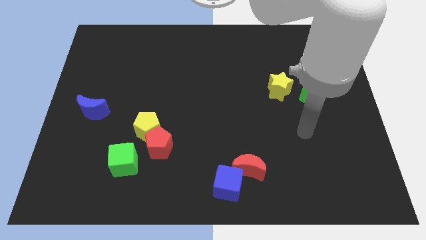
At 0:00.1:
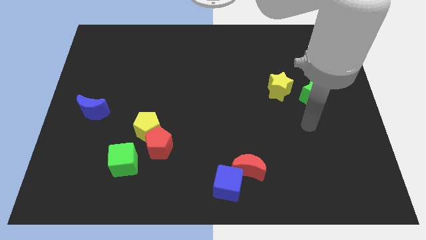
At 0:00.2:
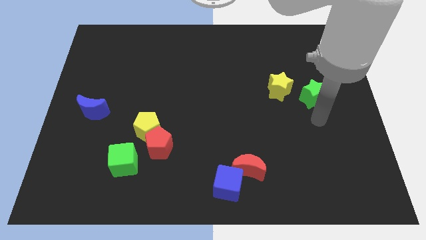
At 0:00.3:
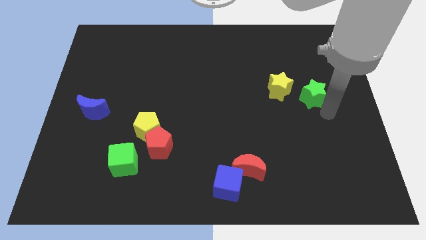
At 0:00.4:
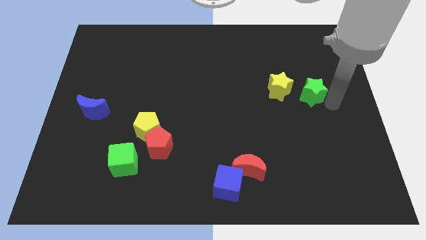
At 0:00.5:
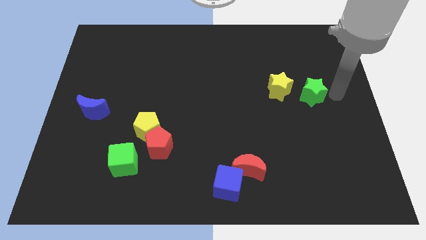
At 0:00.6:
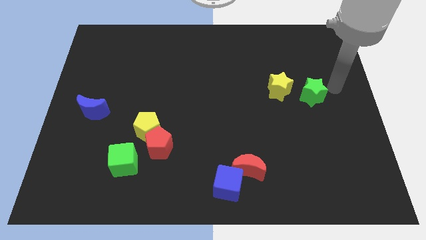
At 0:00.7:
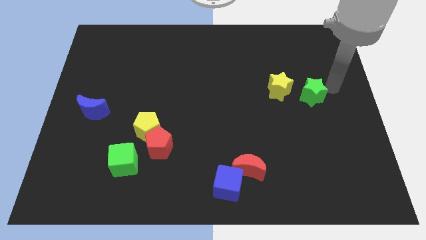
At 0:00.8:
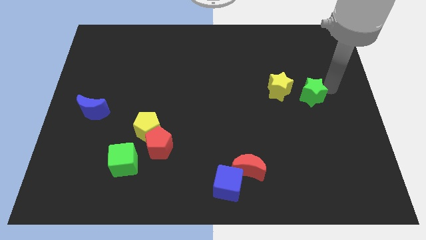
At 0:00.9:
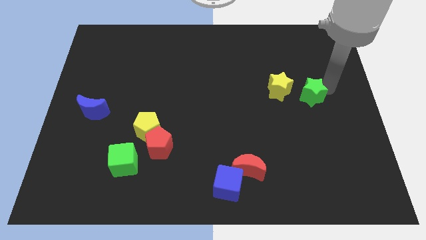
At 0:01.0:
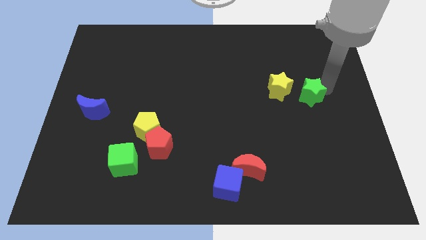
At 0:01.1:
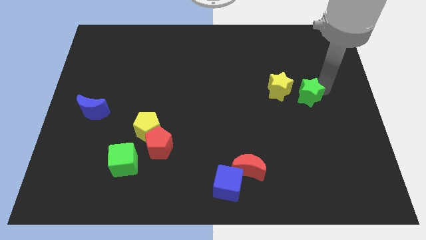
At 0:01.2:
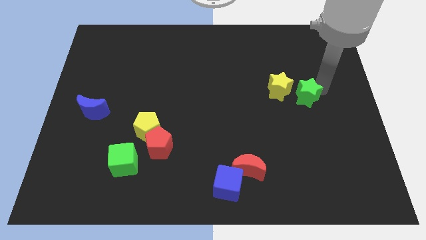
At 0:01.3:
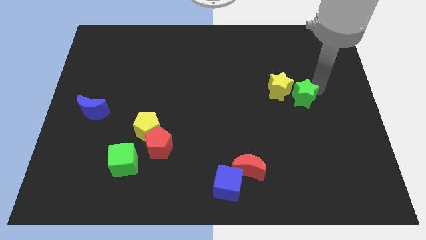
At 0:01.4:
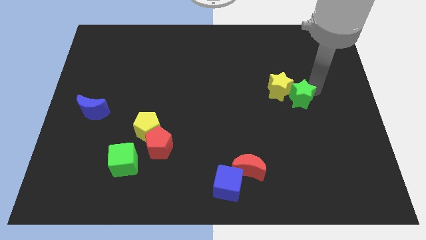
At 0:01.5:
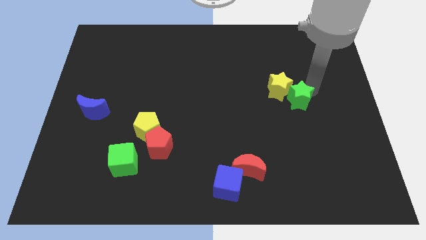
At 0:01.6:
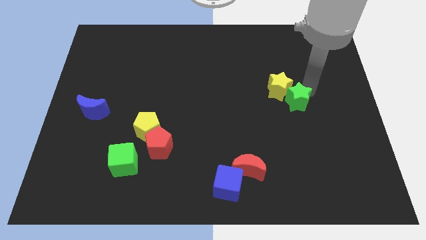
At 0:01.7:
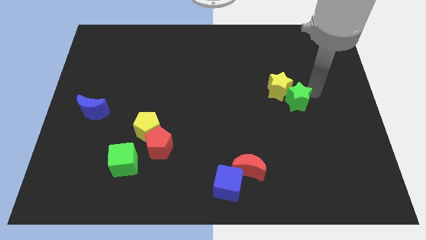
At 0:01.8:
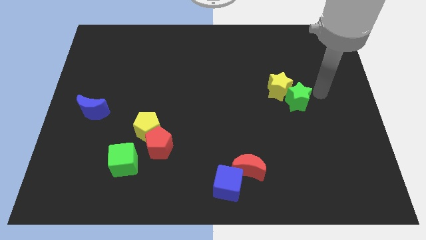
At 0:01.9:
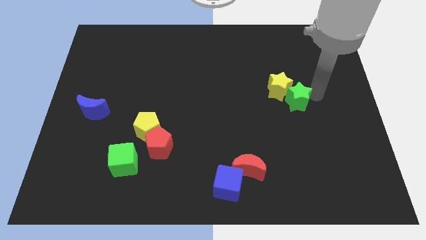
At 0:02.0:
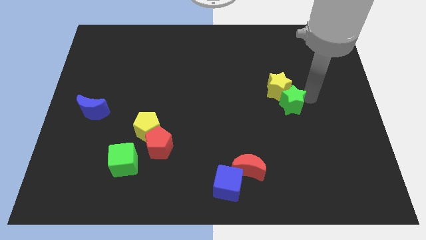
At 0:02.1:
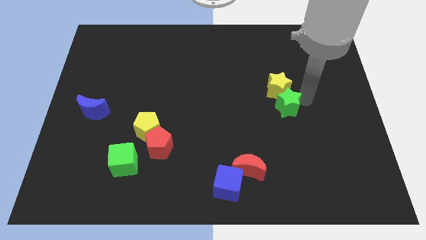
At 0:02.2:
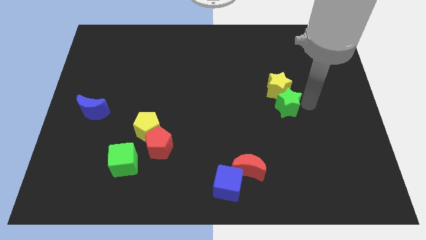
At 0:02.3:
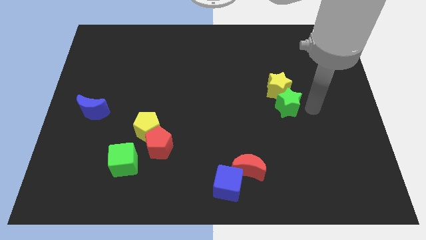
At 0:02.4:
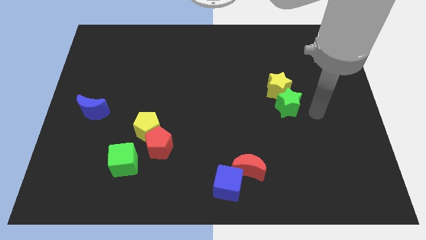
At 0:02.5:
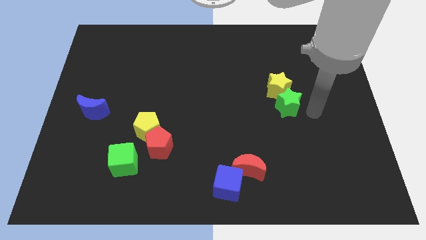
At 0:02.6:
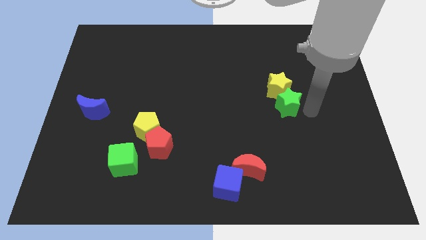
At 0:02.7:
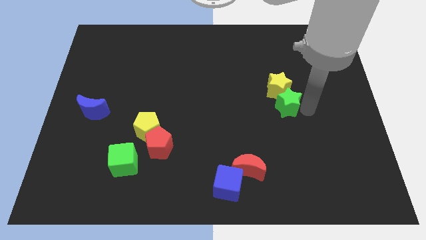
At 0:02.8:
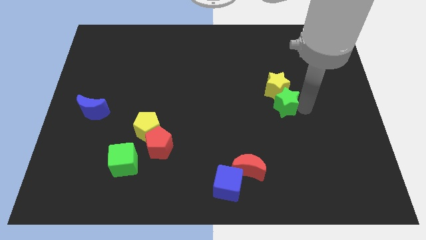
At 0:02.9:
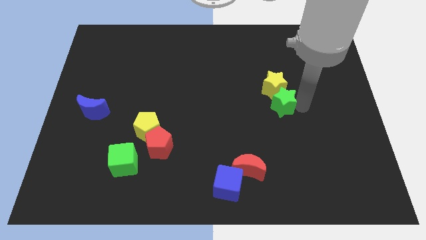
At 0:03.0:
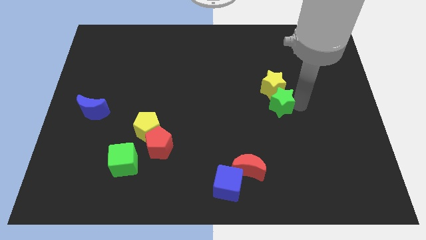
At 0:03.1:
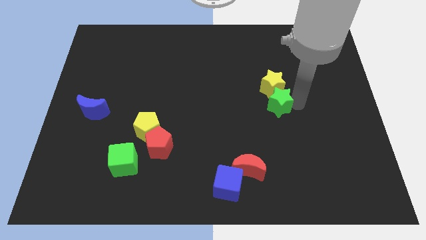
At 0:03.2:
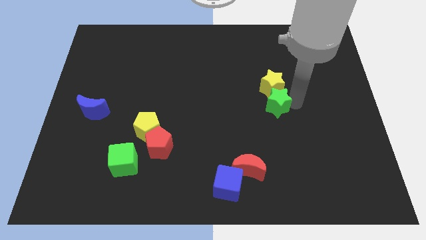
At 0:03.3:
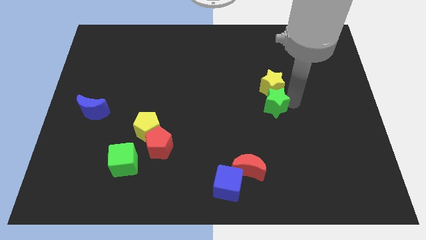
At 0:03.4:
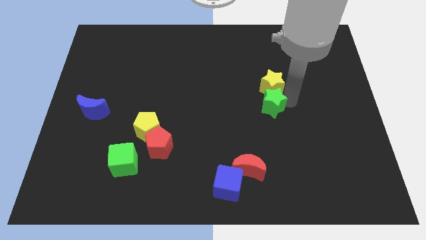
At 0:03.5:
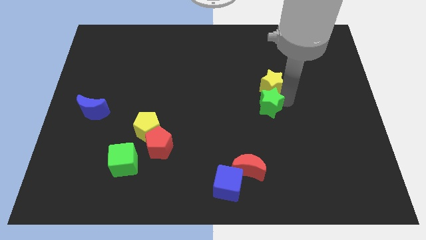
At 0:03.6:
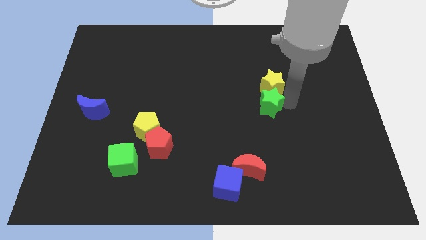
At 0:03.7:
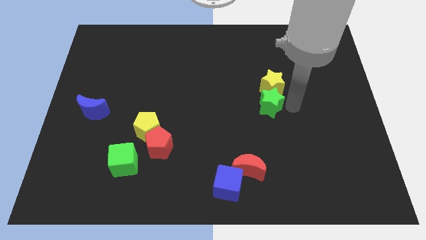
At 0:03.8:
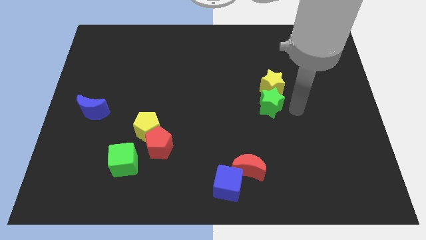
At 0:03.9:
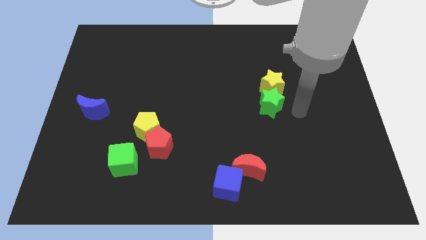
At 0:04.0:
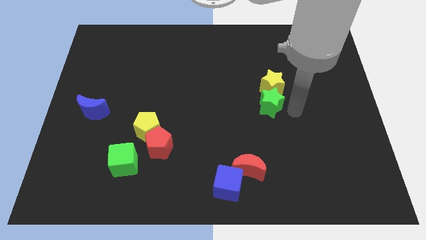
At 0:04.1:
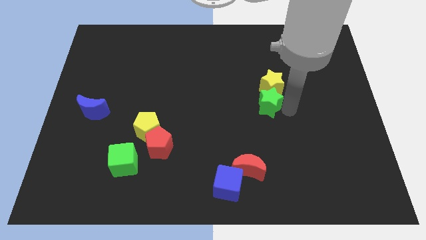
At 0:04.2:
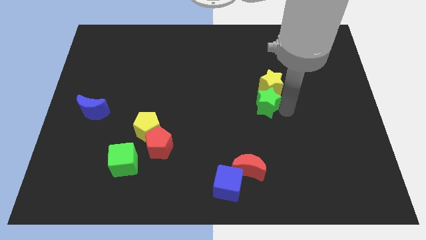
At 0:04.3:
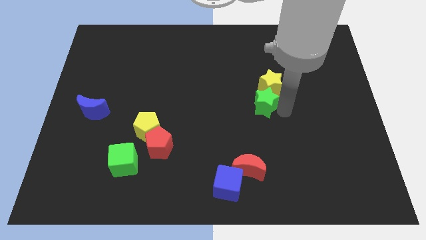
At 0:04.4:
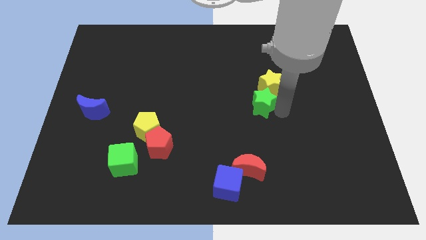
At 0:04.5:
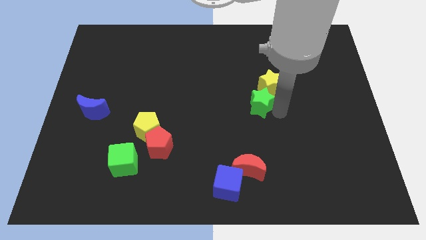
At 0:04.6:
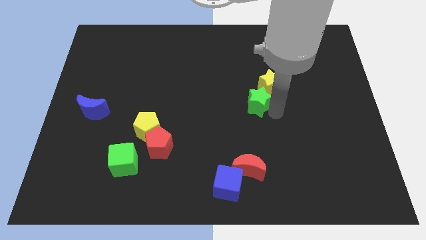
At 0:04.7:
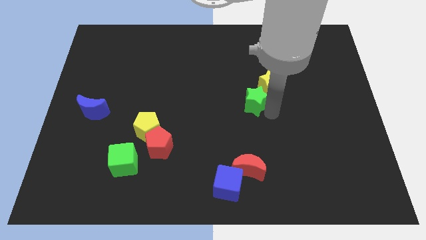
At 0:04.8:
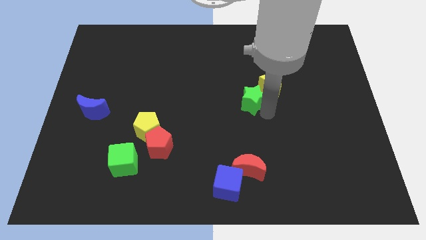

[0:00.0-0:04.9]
push the green star to the left of the yellow star

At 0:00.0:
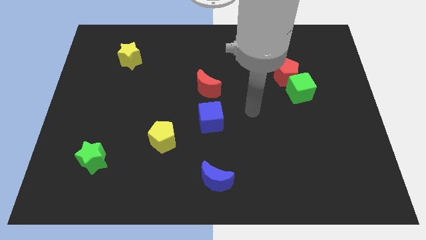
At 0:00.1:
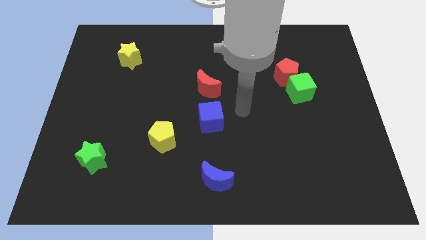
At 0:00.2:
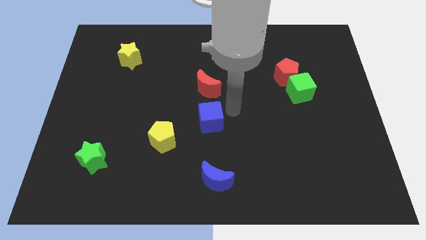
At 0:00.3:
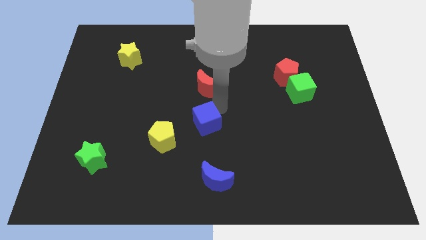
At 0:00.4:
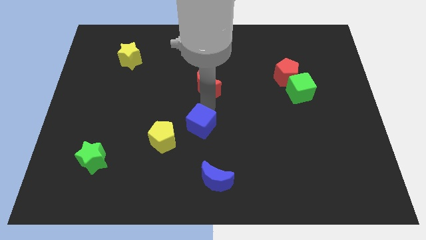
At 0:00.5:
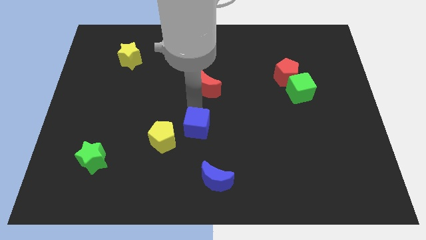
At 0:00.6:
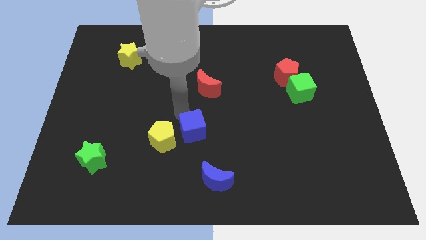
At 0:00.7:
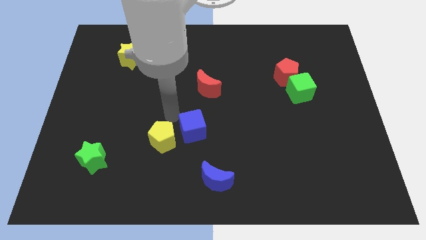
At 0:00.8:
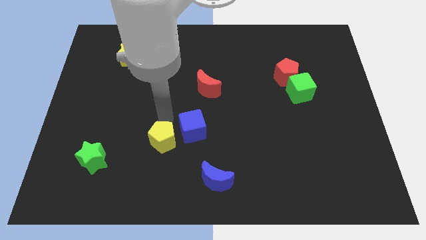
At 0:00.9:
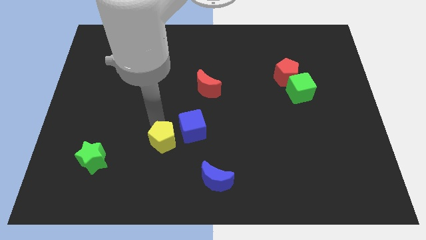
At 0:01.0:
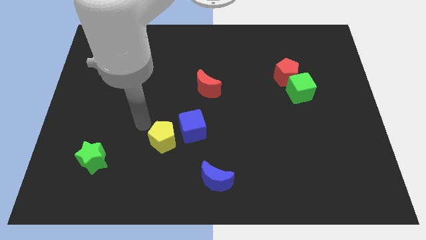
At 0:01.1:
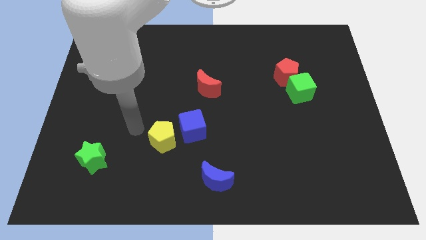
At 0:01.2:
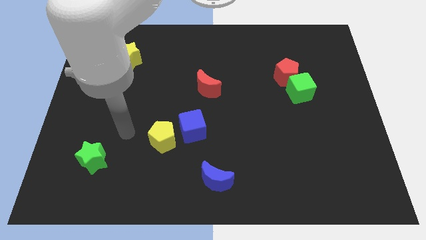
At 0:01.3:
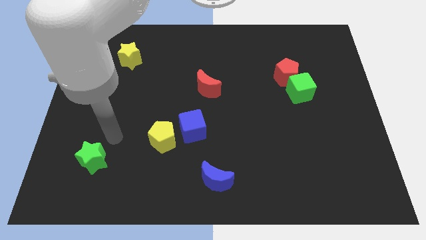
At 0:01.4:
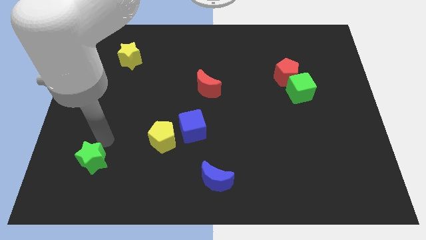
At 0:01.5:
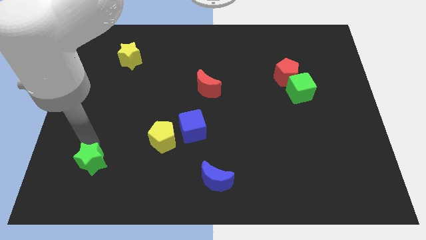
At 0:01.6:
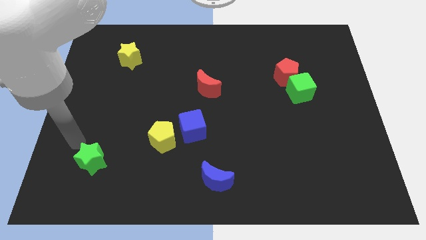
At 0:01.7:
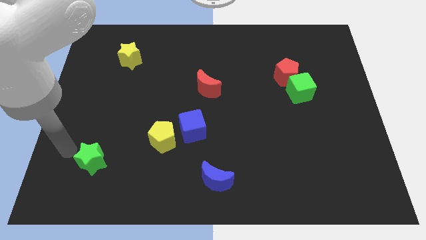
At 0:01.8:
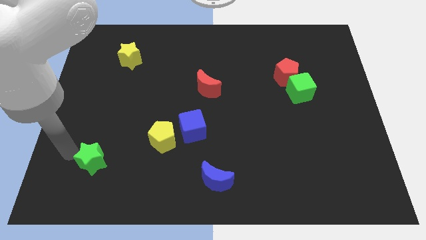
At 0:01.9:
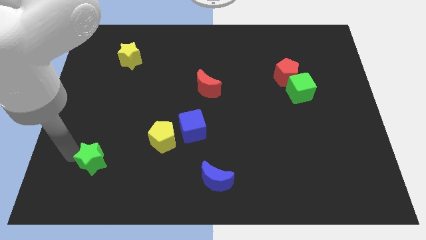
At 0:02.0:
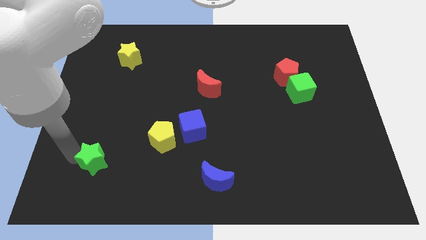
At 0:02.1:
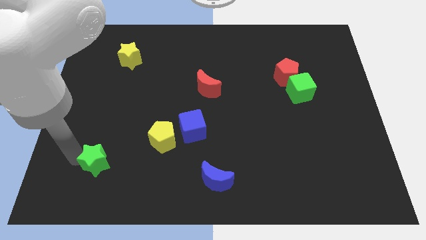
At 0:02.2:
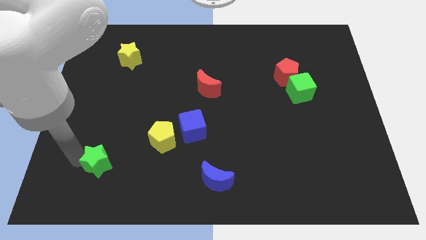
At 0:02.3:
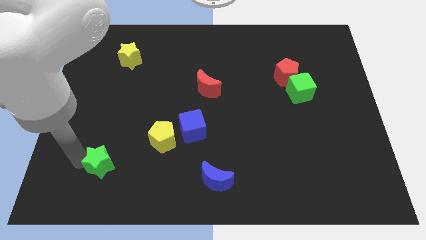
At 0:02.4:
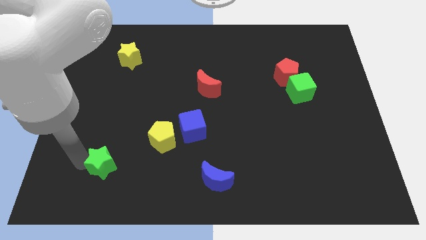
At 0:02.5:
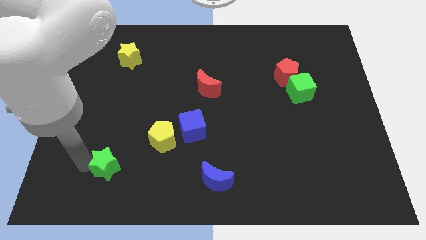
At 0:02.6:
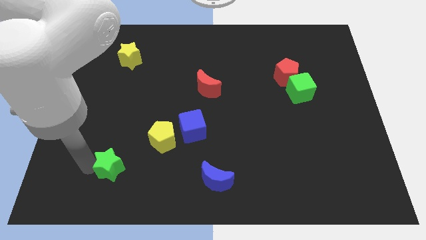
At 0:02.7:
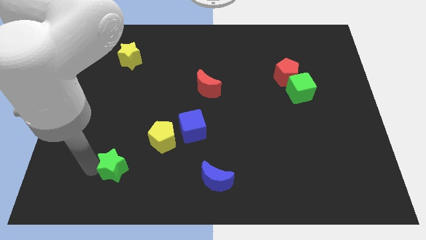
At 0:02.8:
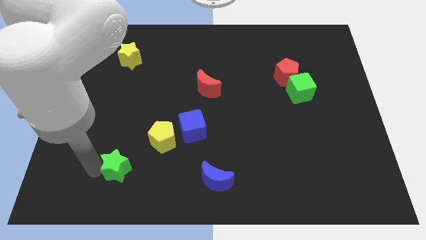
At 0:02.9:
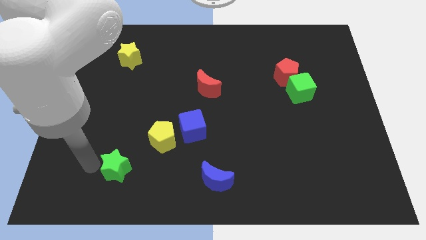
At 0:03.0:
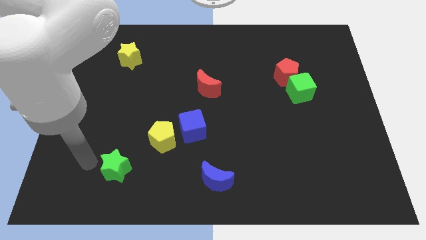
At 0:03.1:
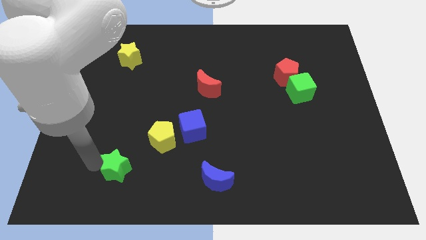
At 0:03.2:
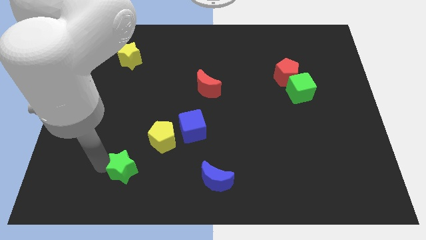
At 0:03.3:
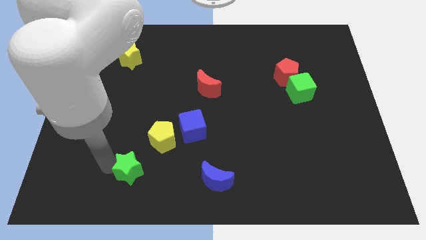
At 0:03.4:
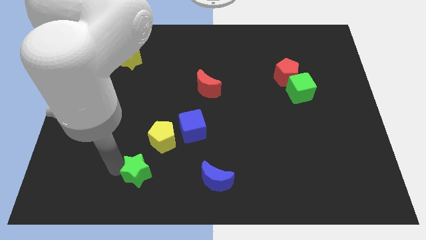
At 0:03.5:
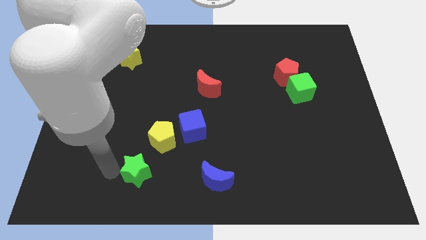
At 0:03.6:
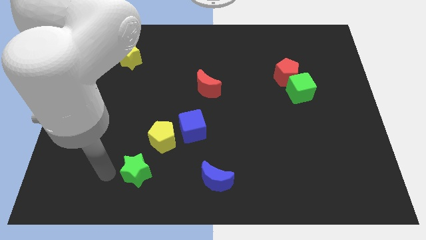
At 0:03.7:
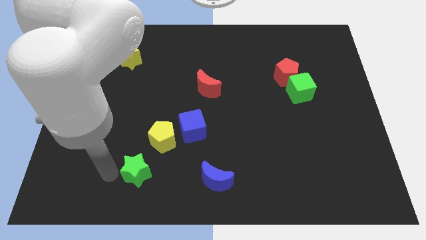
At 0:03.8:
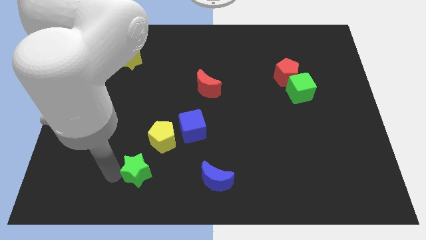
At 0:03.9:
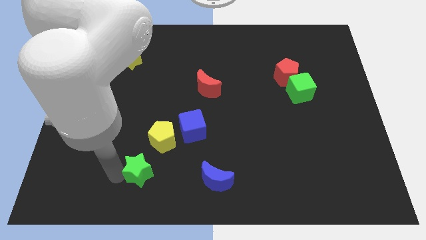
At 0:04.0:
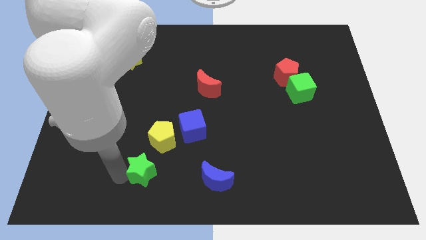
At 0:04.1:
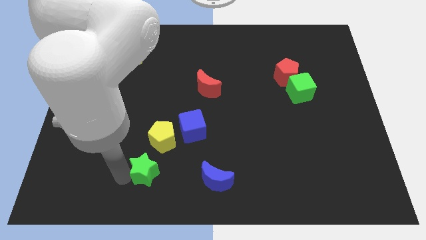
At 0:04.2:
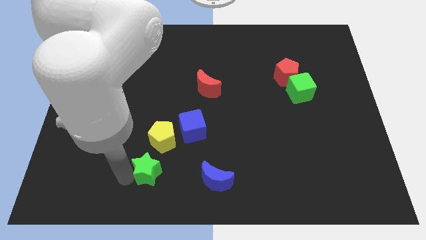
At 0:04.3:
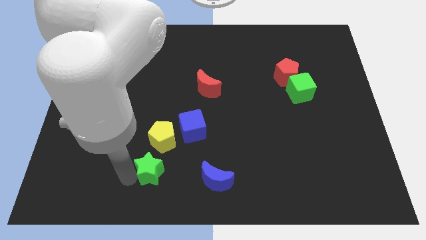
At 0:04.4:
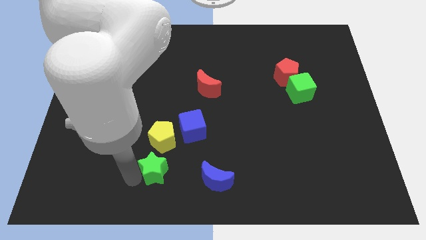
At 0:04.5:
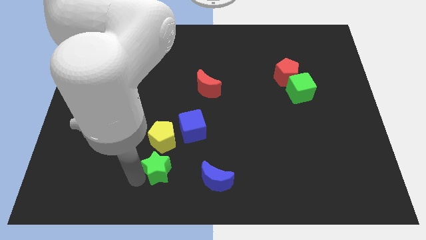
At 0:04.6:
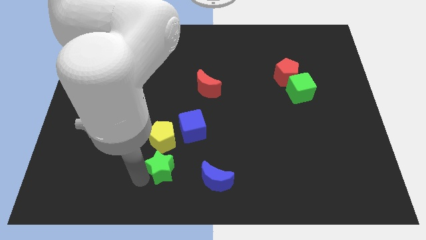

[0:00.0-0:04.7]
move the green star diagonally down and to the right of the yellow pentagon
